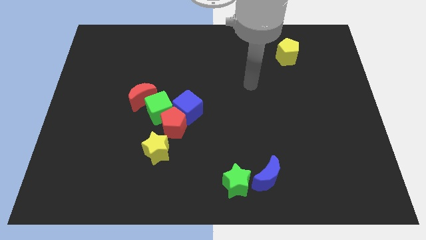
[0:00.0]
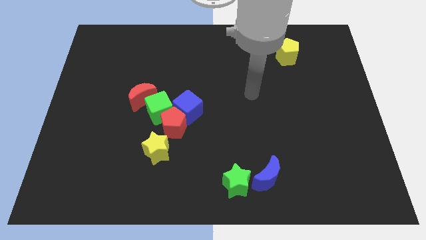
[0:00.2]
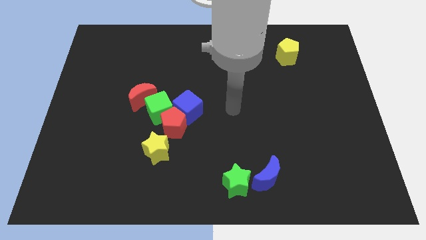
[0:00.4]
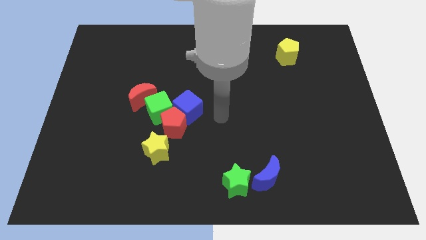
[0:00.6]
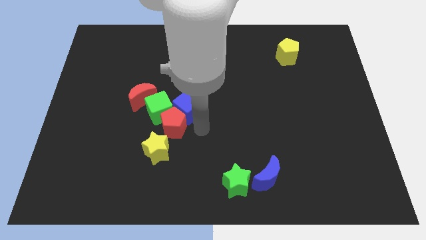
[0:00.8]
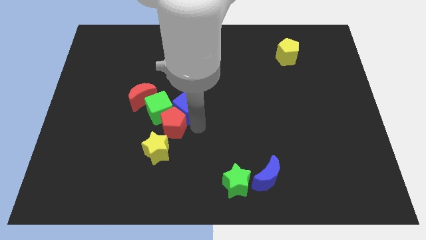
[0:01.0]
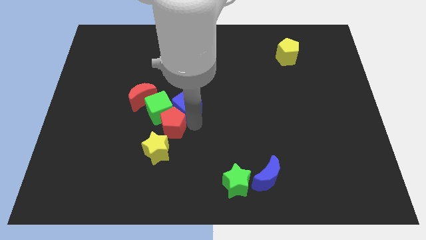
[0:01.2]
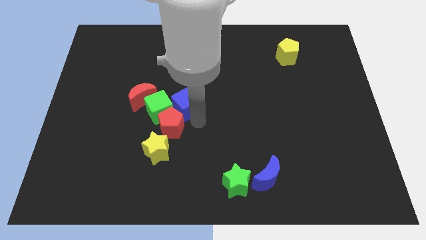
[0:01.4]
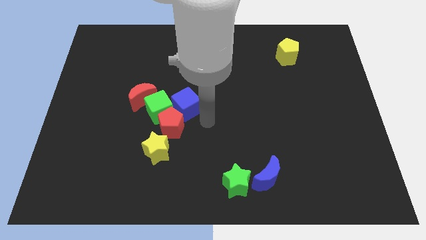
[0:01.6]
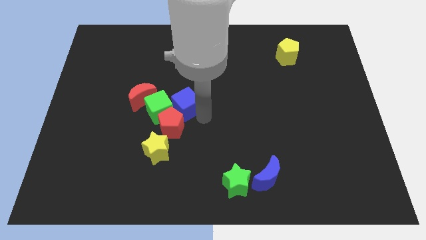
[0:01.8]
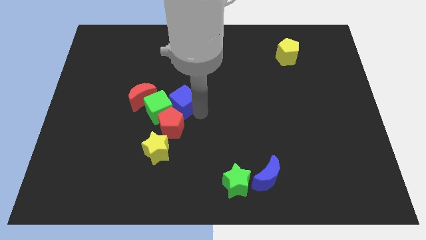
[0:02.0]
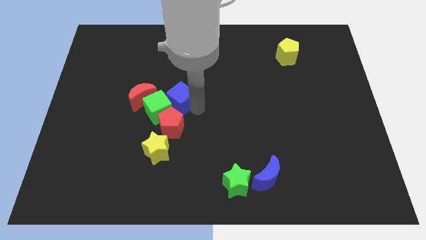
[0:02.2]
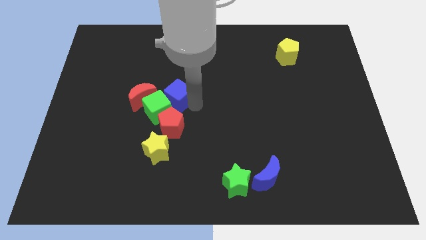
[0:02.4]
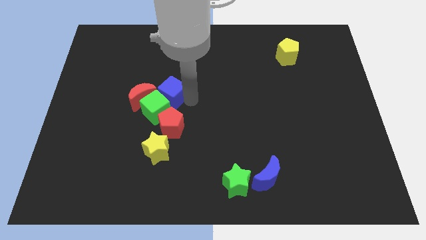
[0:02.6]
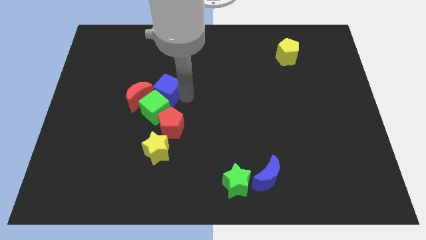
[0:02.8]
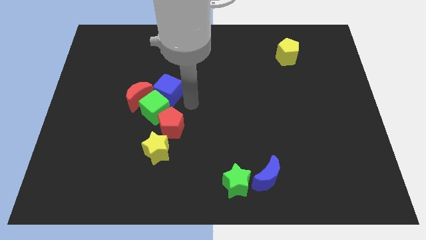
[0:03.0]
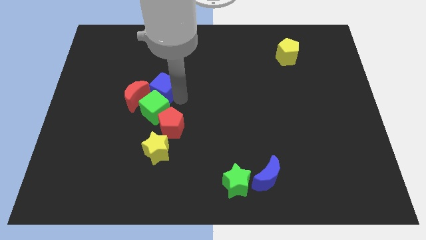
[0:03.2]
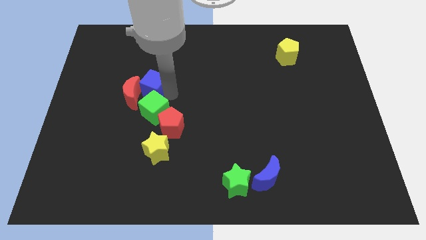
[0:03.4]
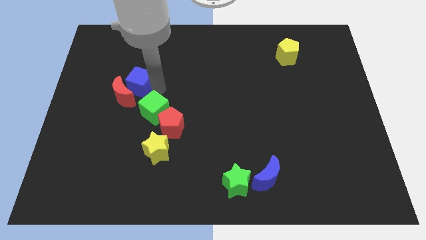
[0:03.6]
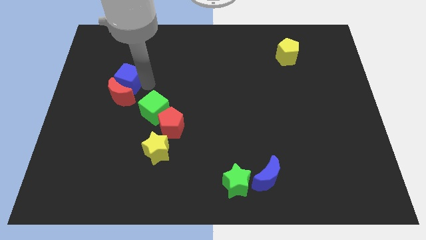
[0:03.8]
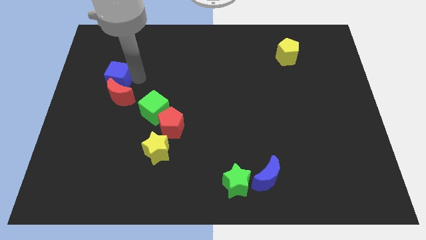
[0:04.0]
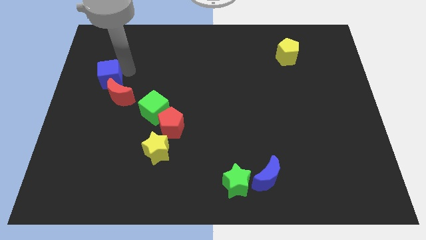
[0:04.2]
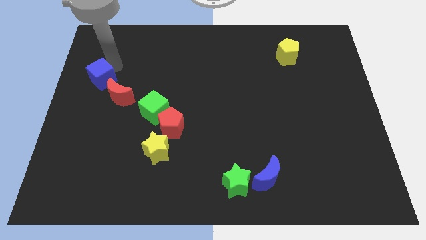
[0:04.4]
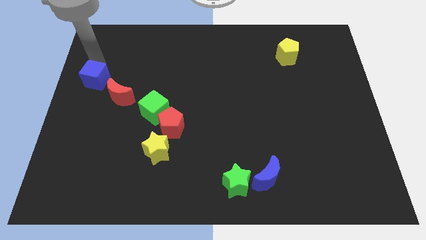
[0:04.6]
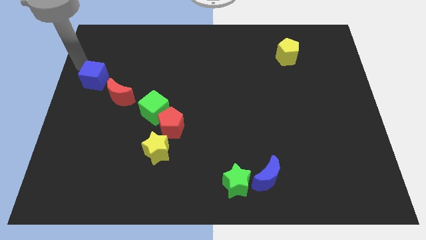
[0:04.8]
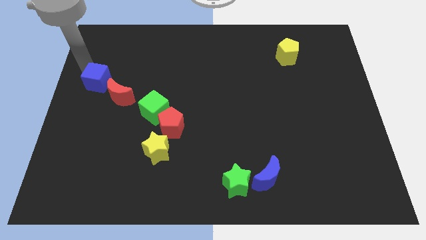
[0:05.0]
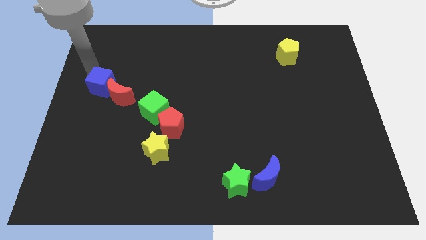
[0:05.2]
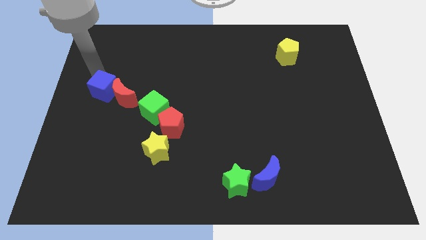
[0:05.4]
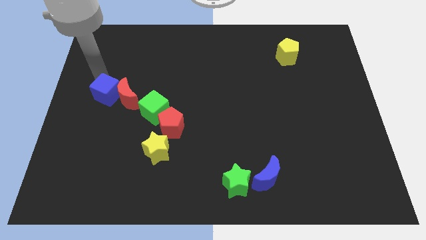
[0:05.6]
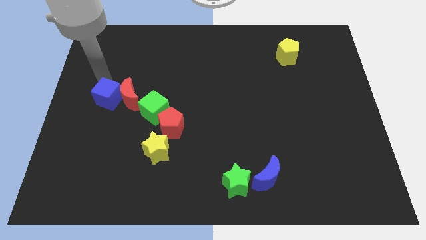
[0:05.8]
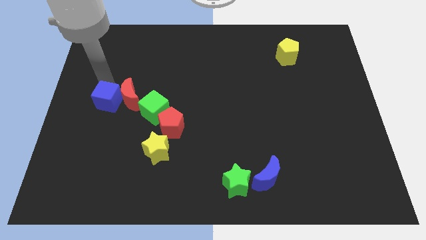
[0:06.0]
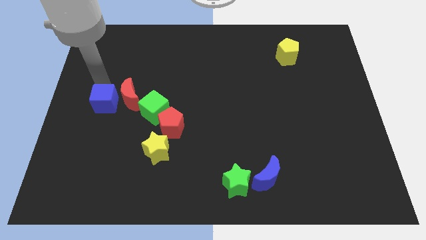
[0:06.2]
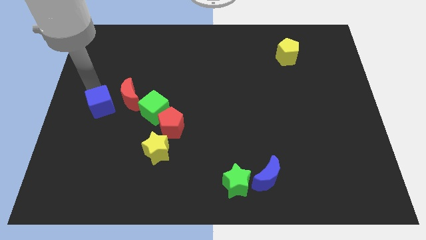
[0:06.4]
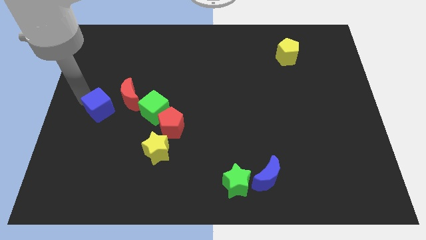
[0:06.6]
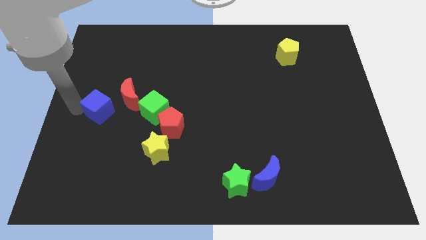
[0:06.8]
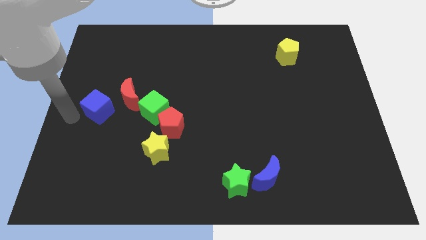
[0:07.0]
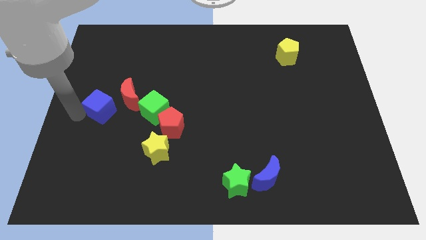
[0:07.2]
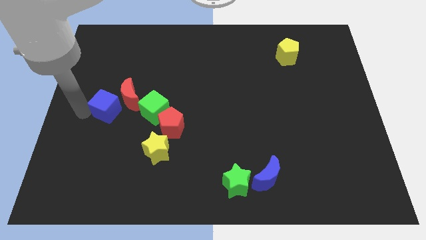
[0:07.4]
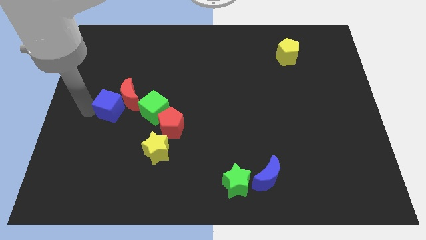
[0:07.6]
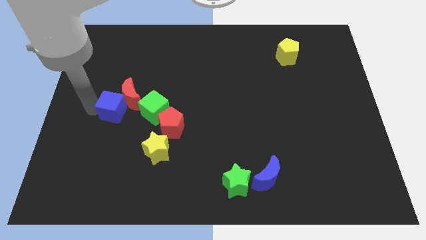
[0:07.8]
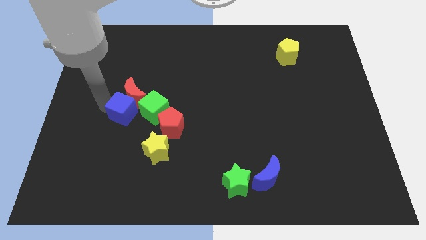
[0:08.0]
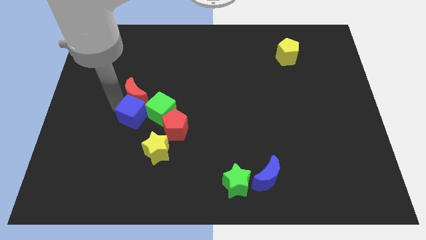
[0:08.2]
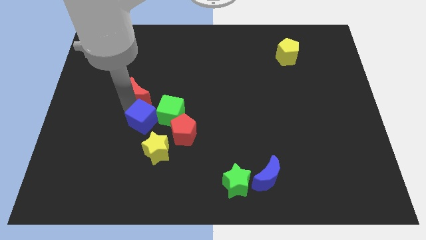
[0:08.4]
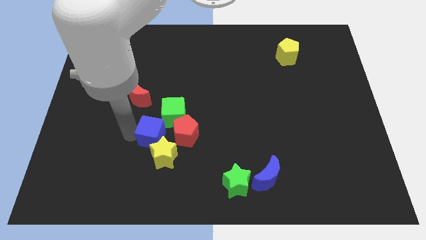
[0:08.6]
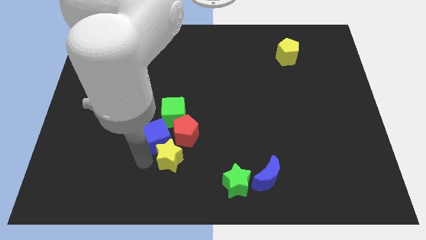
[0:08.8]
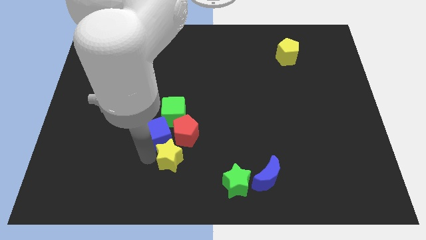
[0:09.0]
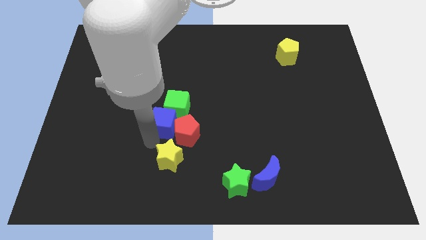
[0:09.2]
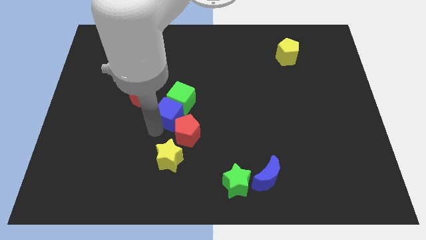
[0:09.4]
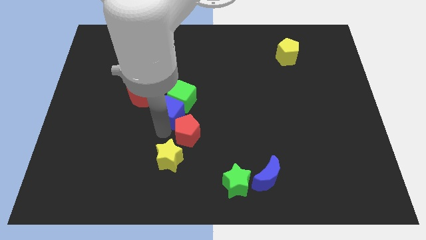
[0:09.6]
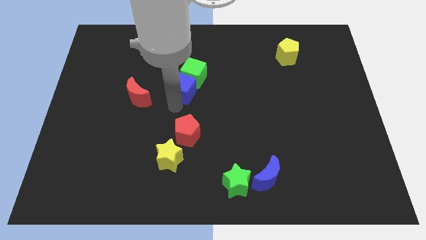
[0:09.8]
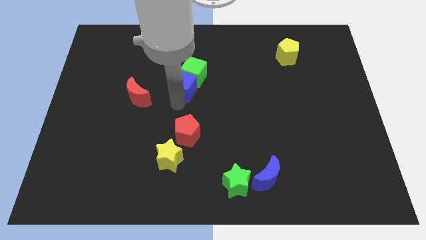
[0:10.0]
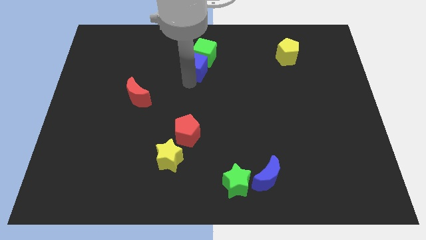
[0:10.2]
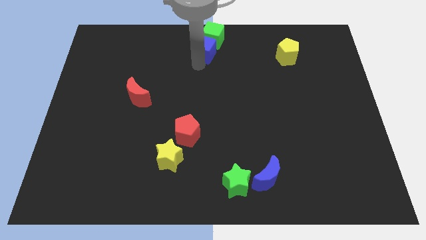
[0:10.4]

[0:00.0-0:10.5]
move the blue cube to the top side

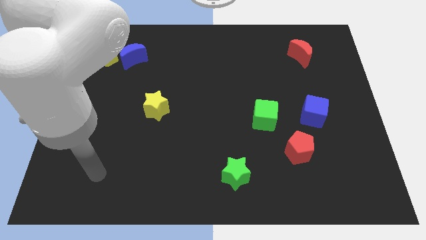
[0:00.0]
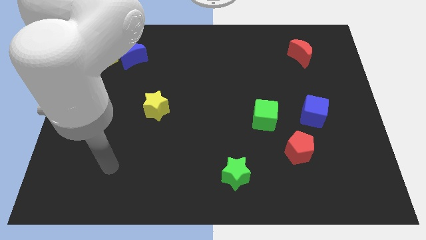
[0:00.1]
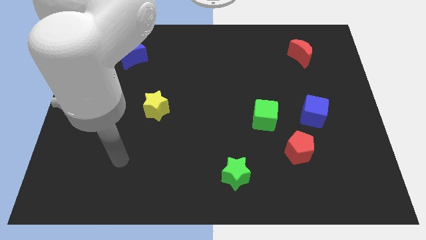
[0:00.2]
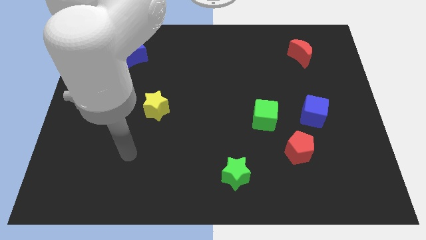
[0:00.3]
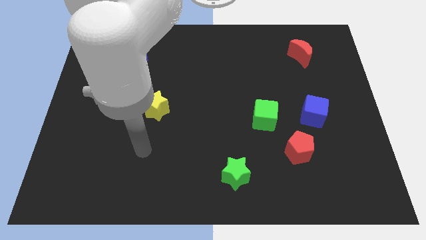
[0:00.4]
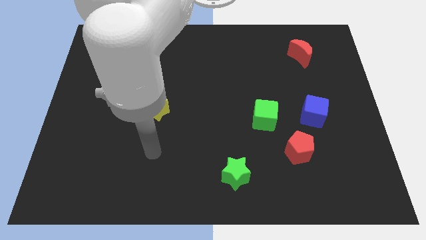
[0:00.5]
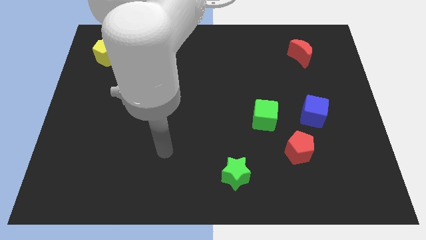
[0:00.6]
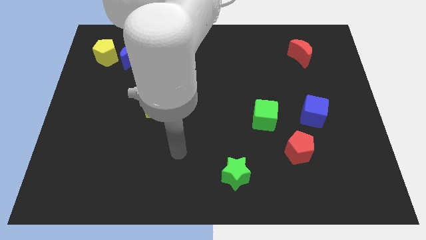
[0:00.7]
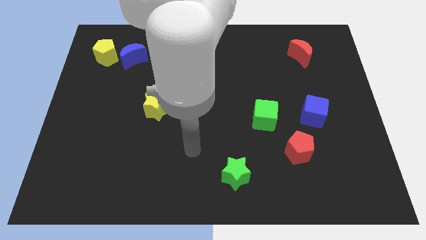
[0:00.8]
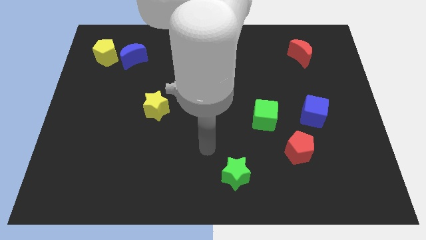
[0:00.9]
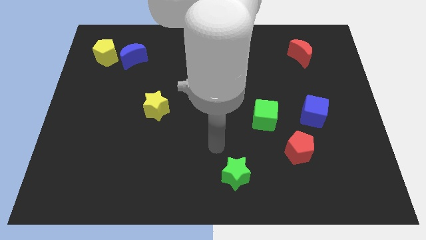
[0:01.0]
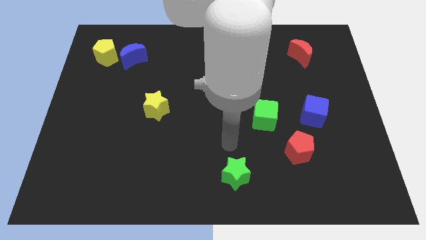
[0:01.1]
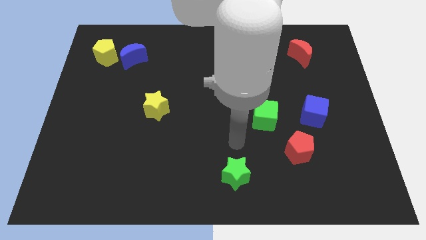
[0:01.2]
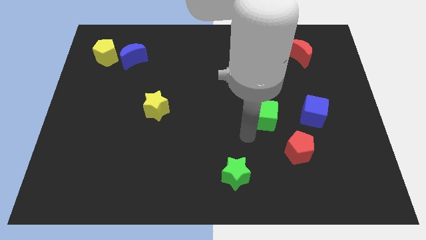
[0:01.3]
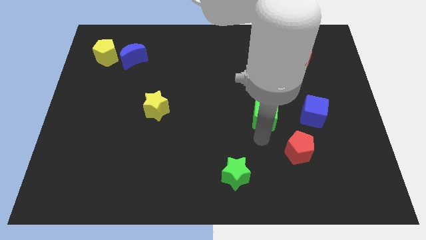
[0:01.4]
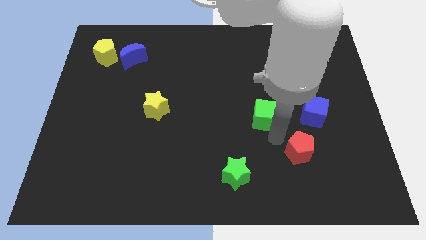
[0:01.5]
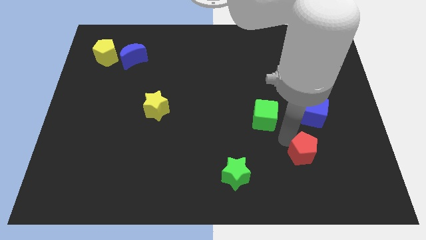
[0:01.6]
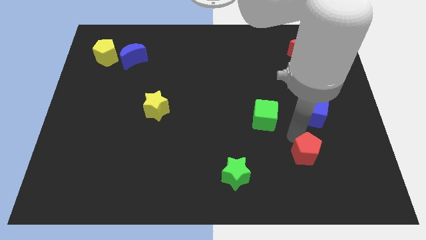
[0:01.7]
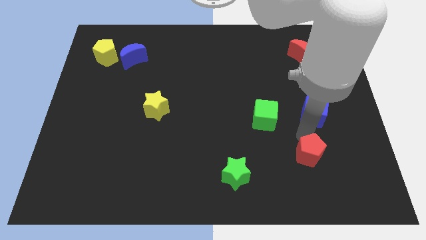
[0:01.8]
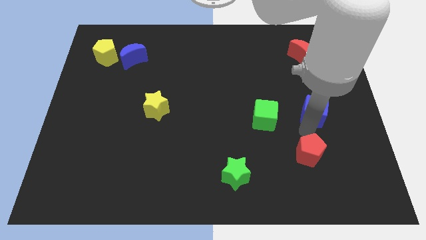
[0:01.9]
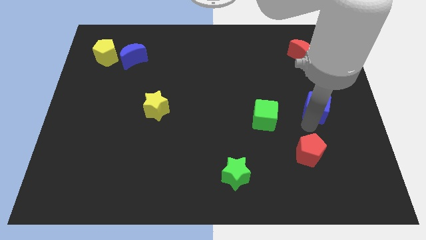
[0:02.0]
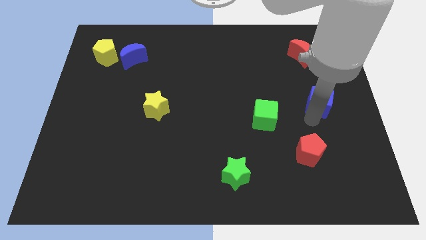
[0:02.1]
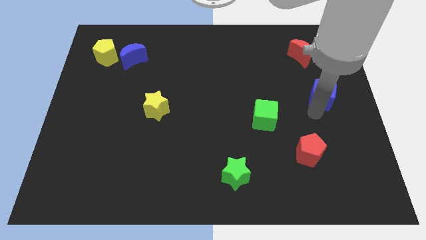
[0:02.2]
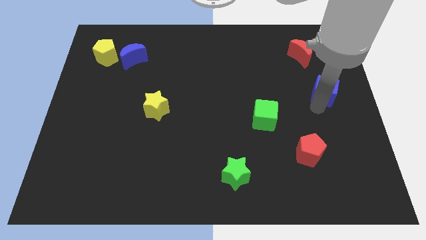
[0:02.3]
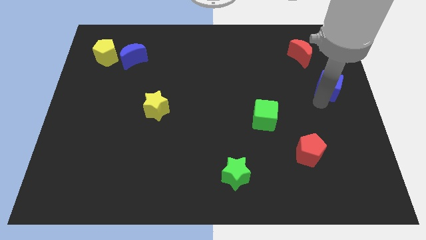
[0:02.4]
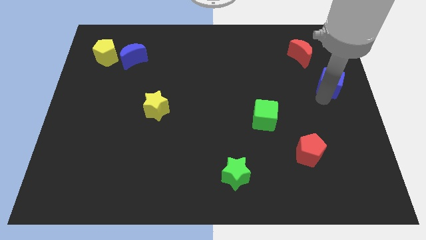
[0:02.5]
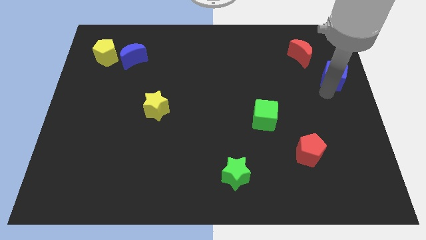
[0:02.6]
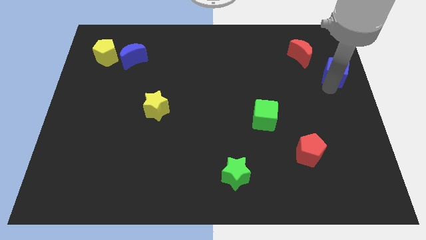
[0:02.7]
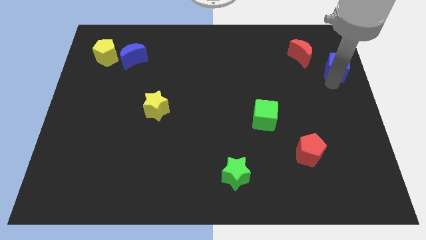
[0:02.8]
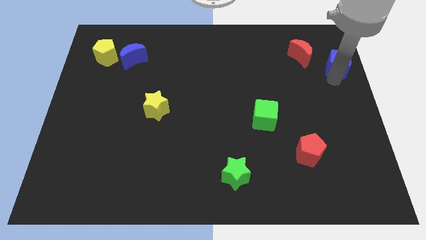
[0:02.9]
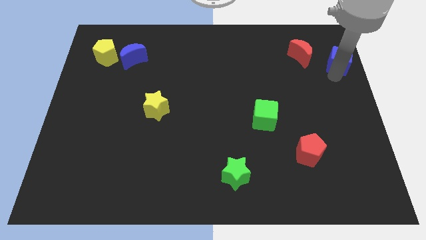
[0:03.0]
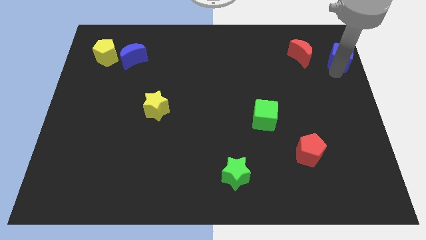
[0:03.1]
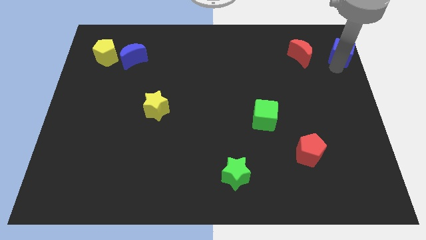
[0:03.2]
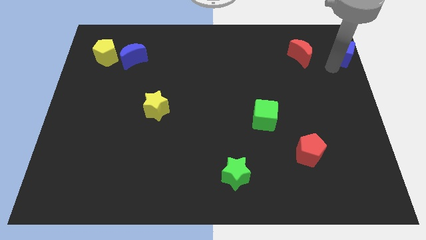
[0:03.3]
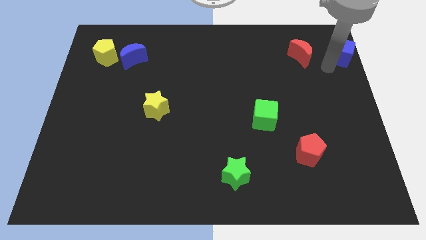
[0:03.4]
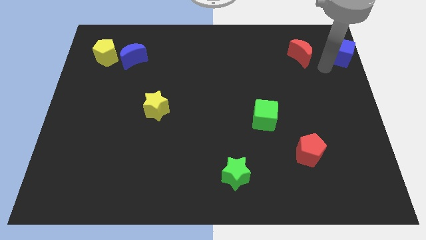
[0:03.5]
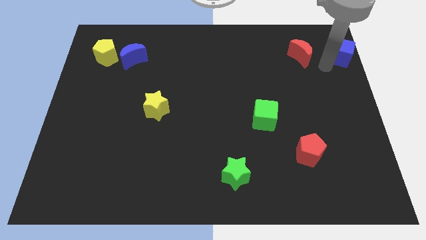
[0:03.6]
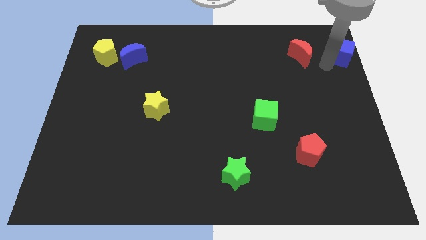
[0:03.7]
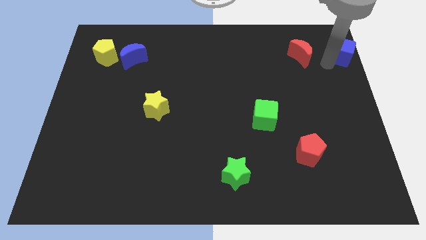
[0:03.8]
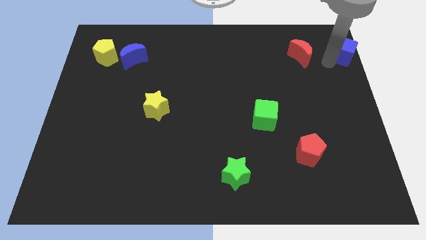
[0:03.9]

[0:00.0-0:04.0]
push the blue cube to the upper right corner
